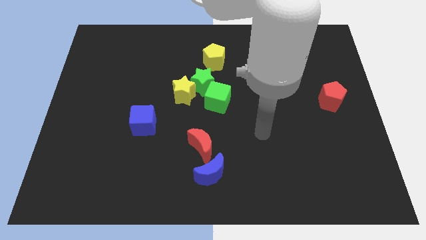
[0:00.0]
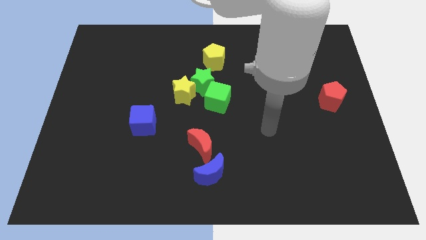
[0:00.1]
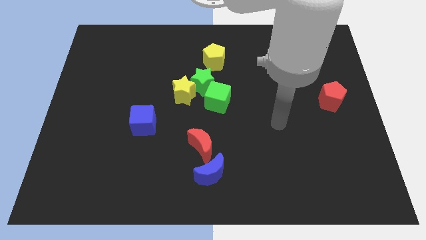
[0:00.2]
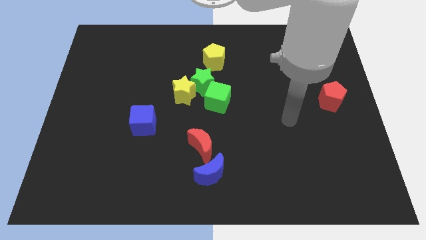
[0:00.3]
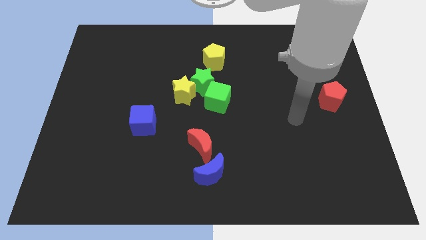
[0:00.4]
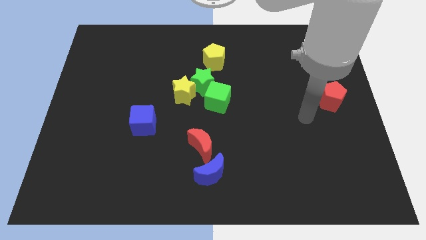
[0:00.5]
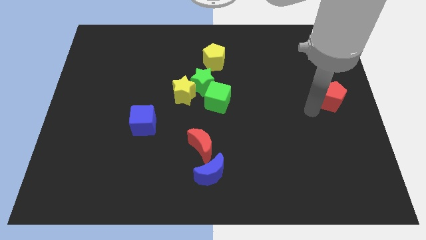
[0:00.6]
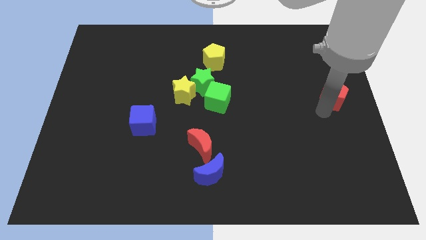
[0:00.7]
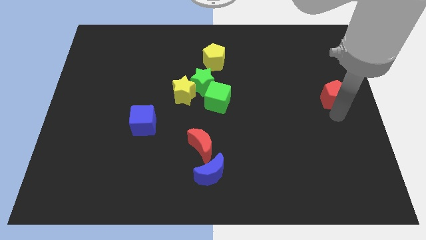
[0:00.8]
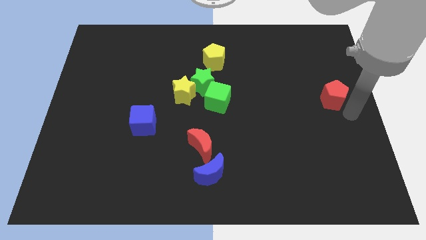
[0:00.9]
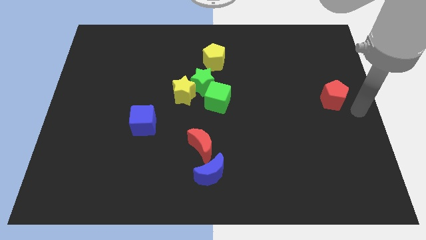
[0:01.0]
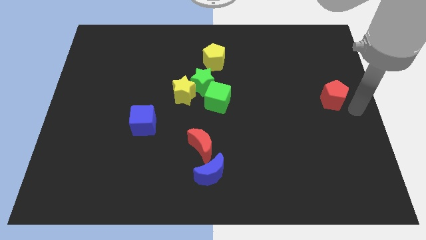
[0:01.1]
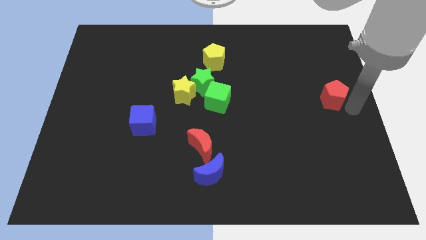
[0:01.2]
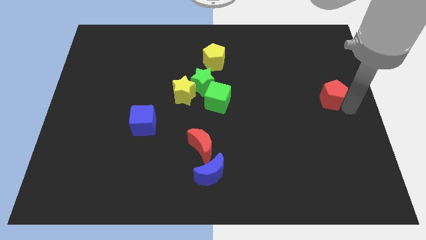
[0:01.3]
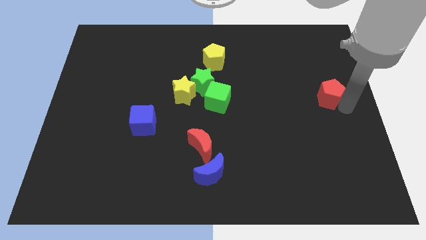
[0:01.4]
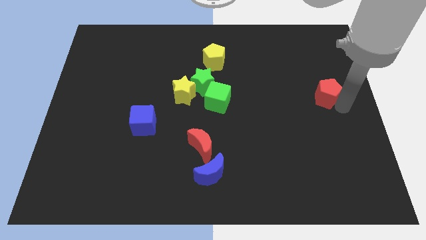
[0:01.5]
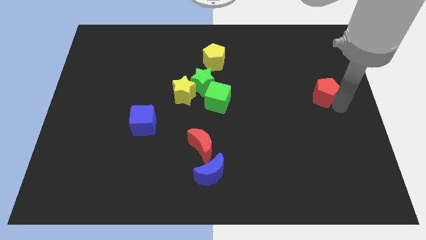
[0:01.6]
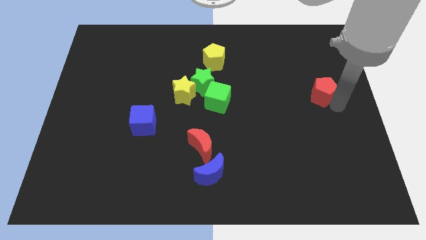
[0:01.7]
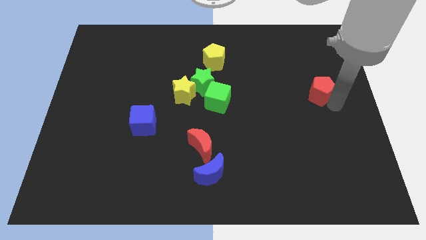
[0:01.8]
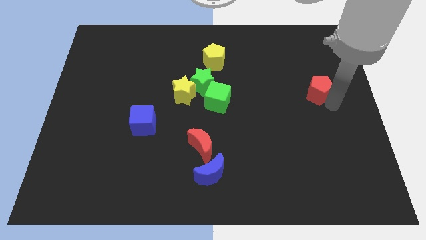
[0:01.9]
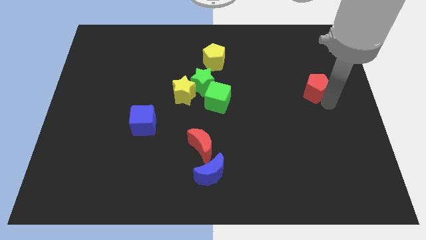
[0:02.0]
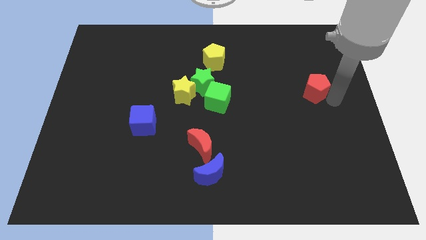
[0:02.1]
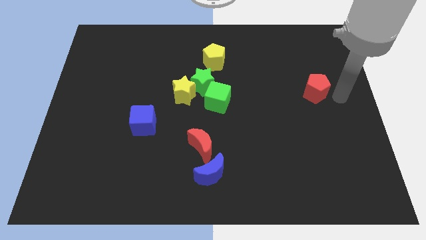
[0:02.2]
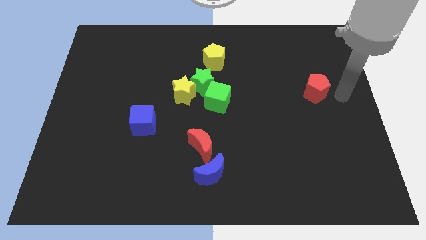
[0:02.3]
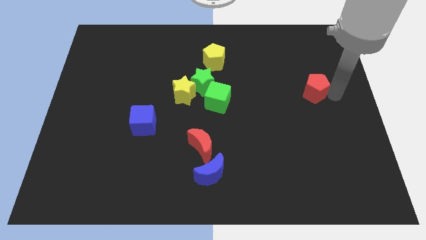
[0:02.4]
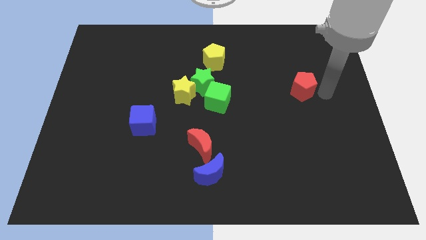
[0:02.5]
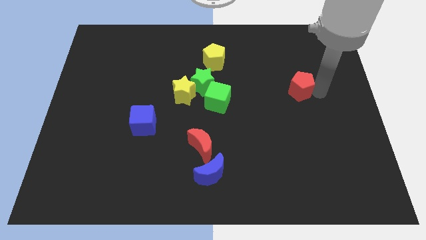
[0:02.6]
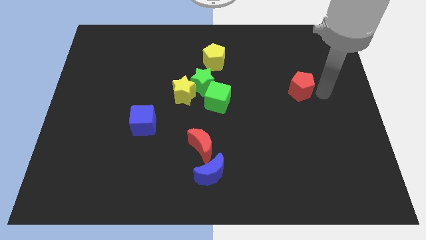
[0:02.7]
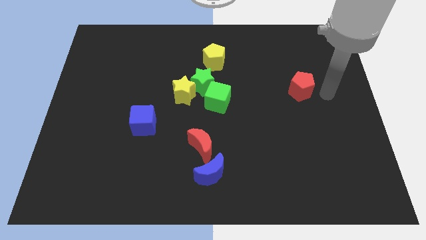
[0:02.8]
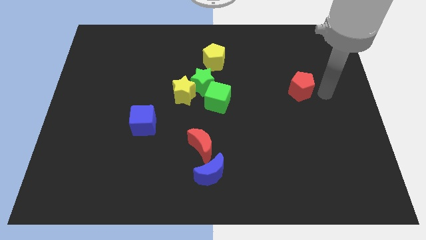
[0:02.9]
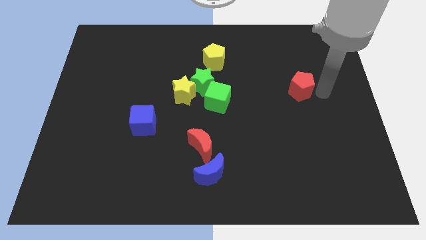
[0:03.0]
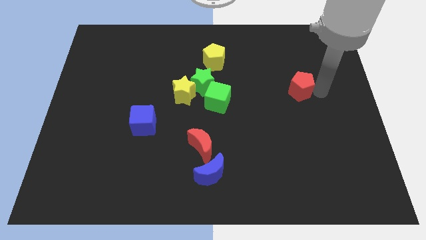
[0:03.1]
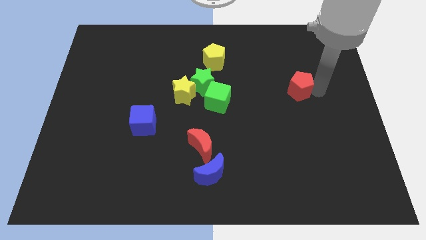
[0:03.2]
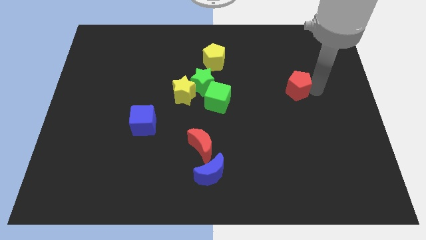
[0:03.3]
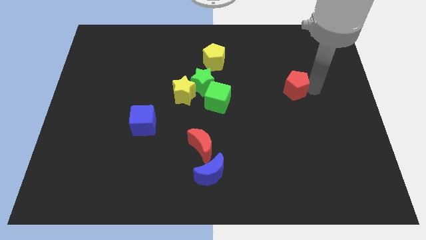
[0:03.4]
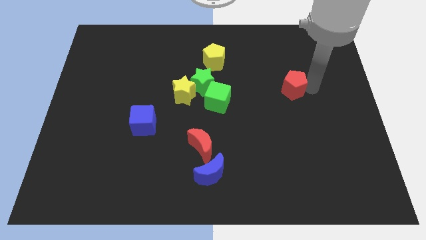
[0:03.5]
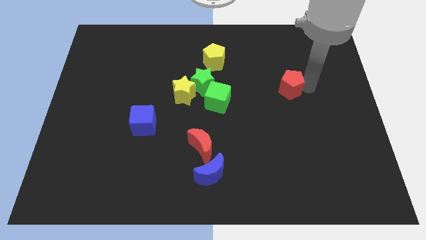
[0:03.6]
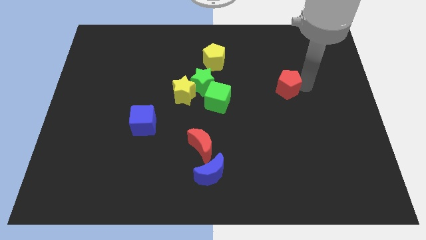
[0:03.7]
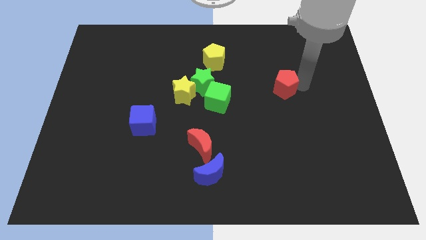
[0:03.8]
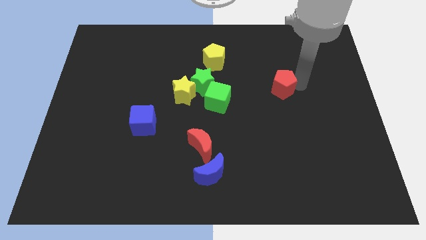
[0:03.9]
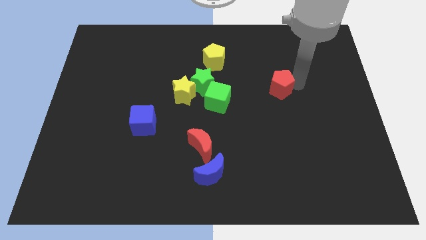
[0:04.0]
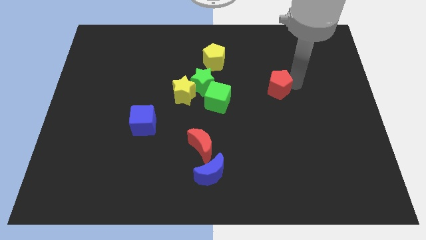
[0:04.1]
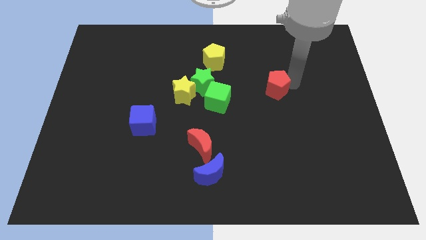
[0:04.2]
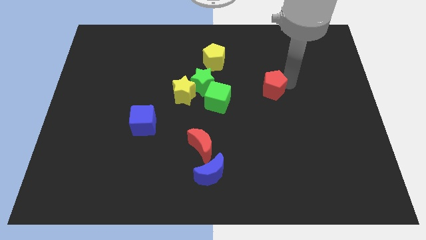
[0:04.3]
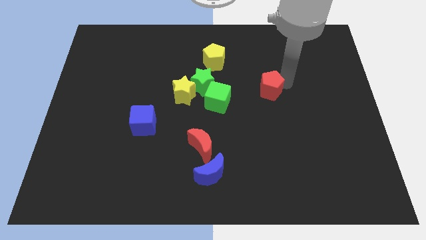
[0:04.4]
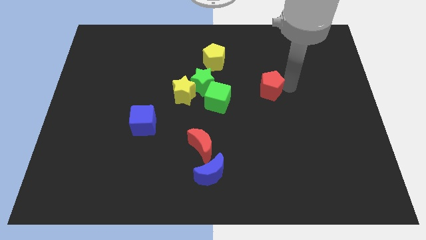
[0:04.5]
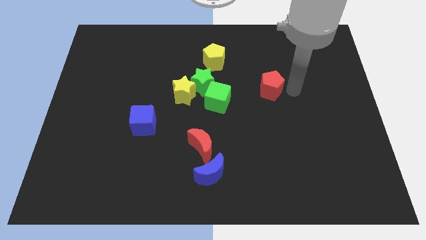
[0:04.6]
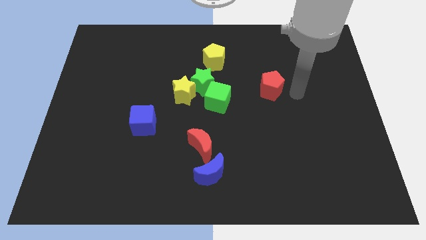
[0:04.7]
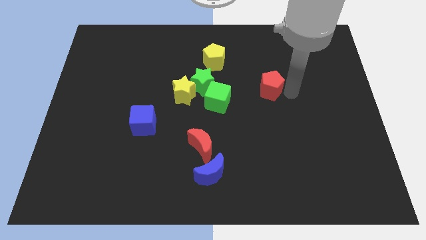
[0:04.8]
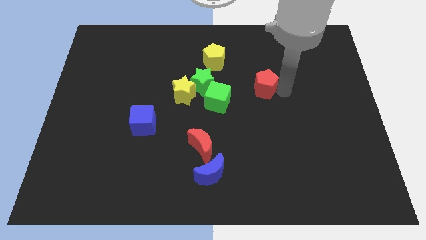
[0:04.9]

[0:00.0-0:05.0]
push the red pentagon to the right of the green star

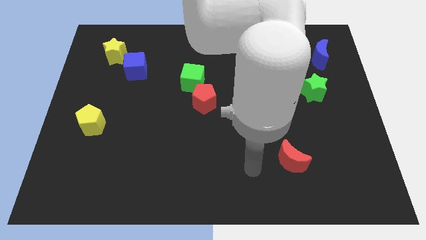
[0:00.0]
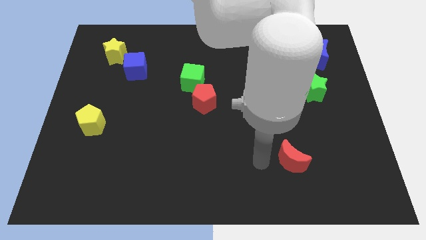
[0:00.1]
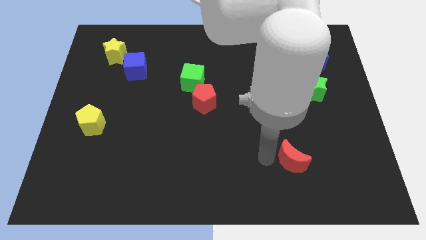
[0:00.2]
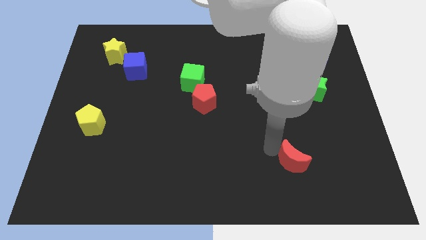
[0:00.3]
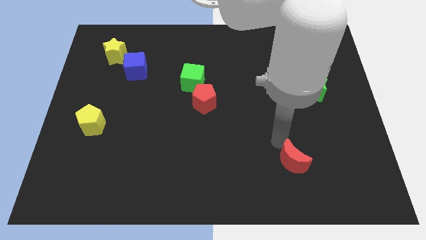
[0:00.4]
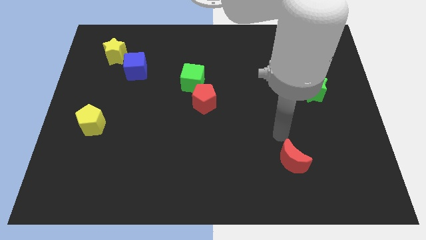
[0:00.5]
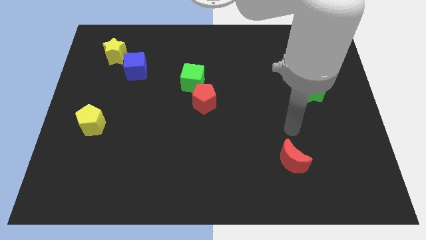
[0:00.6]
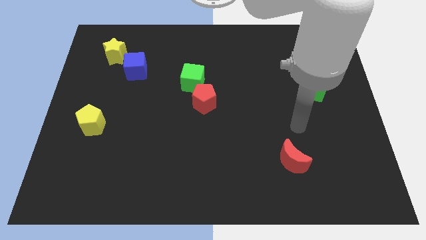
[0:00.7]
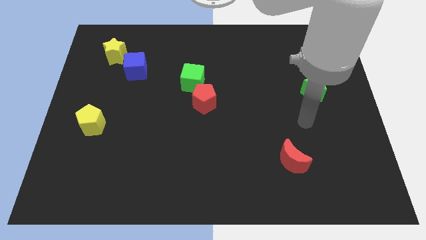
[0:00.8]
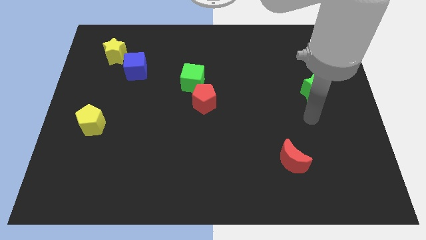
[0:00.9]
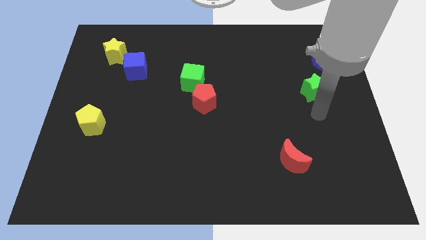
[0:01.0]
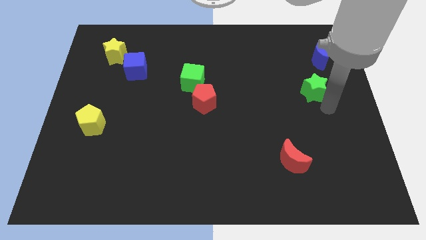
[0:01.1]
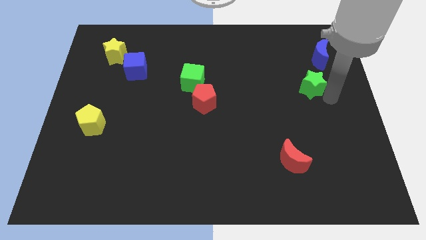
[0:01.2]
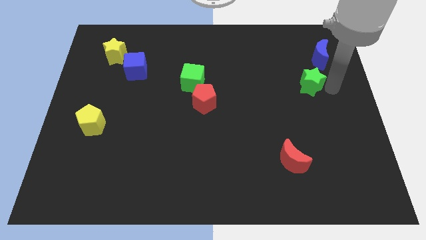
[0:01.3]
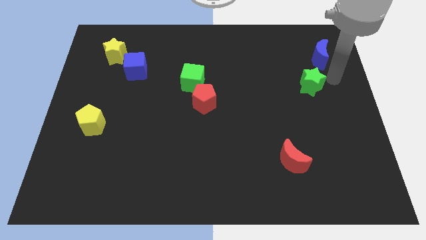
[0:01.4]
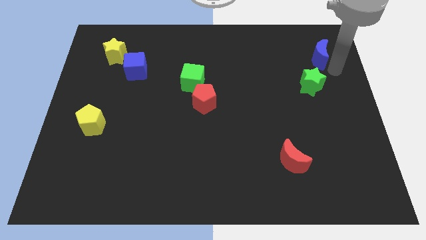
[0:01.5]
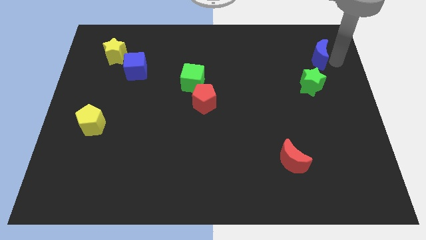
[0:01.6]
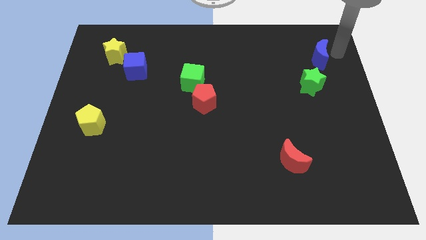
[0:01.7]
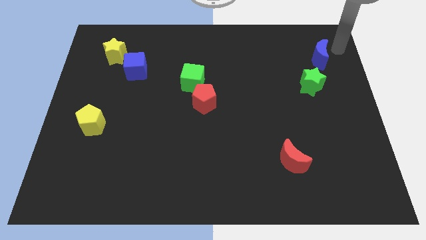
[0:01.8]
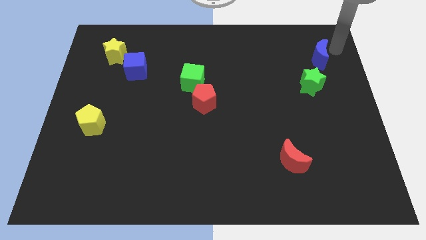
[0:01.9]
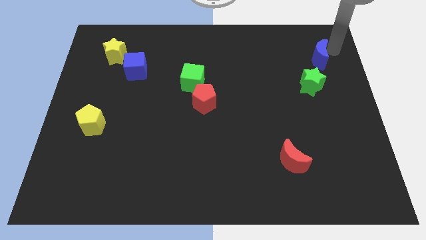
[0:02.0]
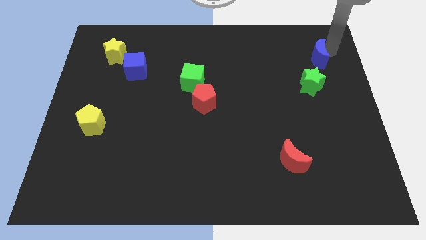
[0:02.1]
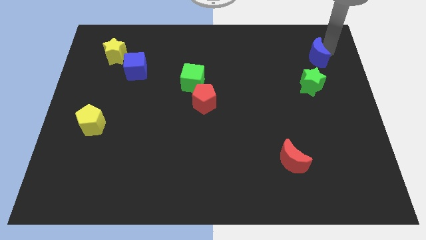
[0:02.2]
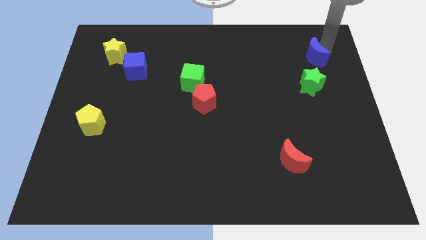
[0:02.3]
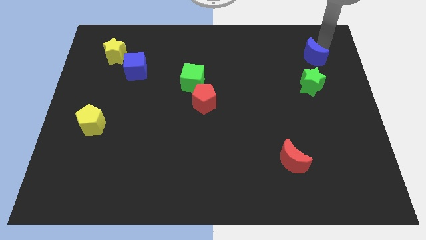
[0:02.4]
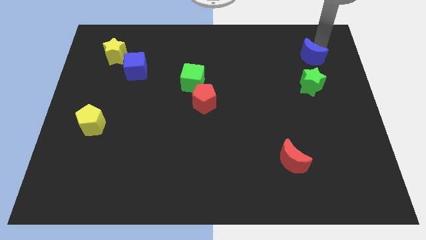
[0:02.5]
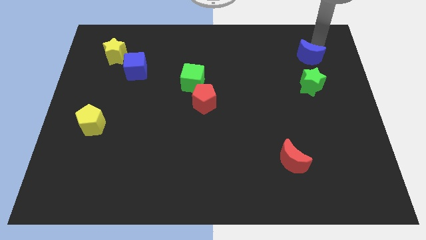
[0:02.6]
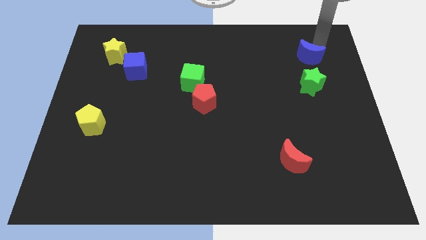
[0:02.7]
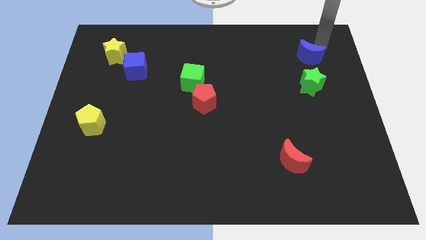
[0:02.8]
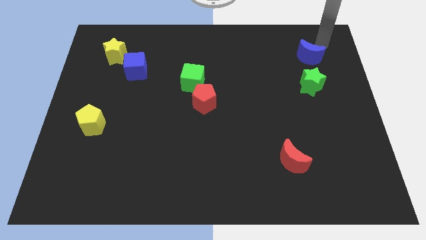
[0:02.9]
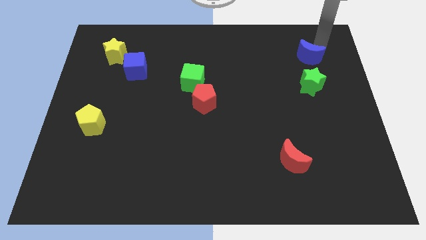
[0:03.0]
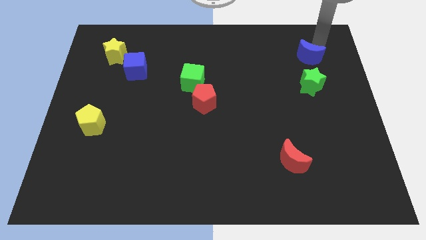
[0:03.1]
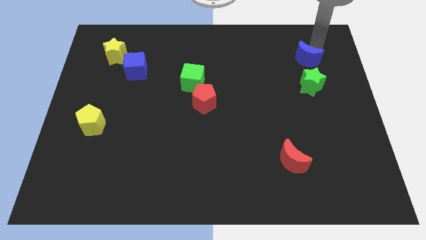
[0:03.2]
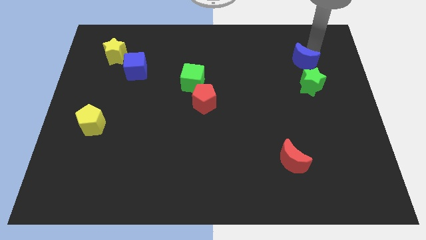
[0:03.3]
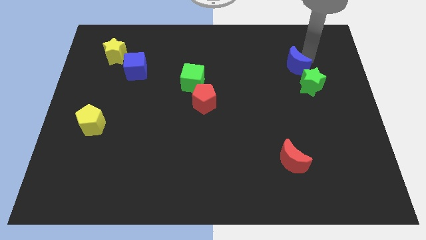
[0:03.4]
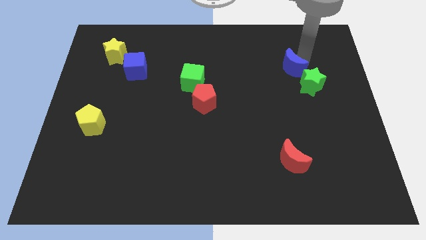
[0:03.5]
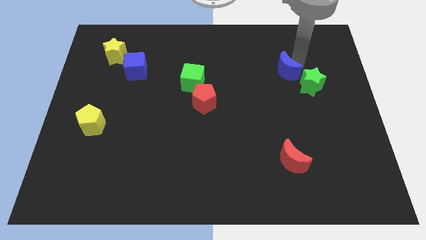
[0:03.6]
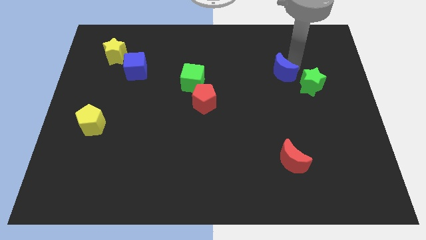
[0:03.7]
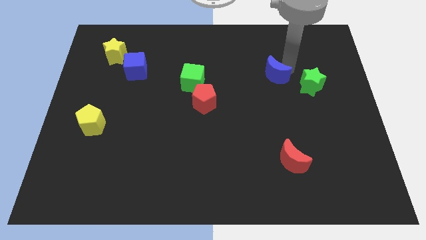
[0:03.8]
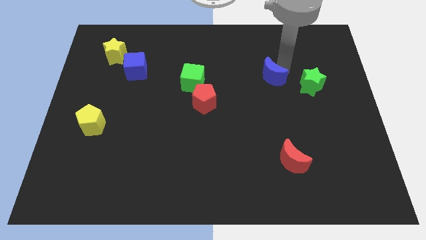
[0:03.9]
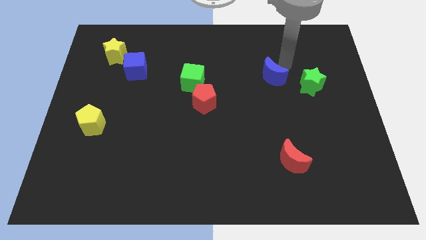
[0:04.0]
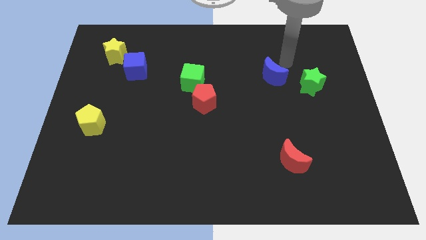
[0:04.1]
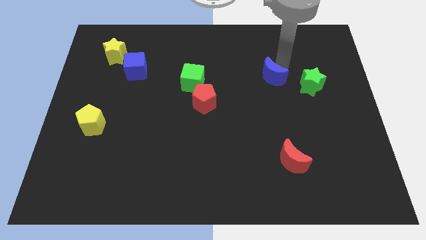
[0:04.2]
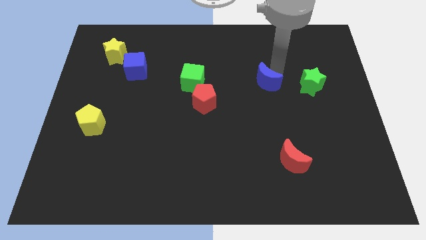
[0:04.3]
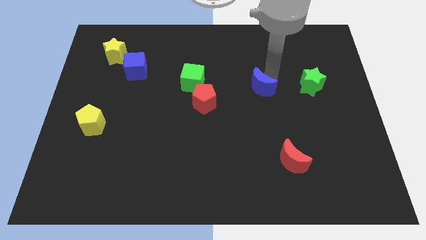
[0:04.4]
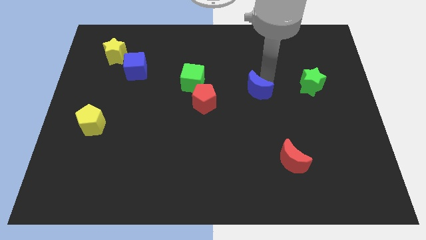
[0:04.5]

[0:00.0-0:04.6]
put the blue moon just right of the red pentagon
